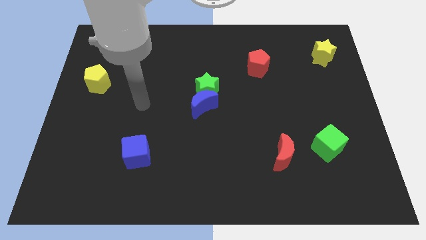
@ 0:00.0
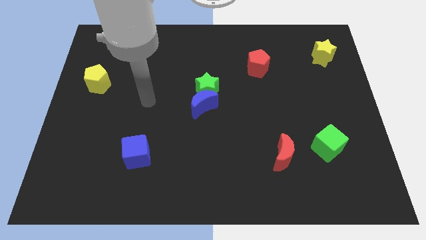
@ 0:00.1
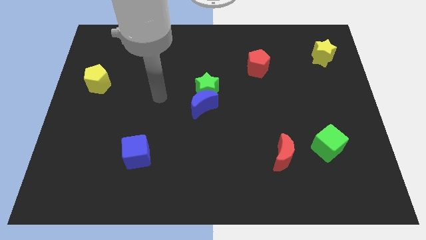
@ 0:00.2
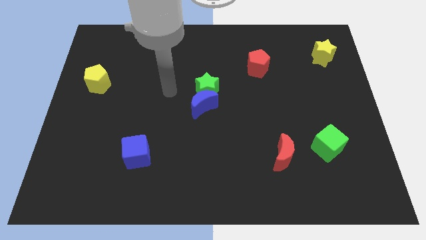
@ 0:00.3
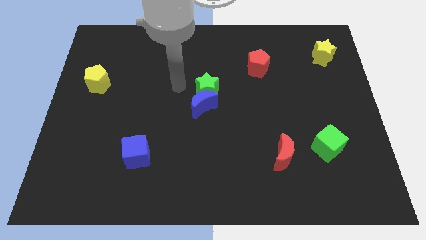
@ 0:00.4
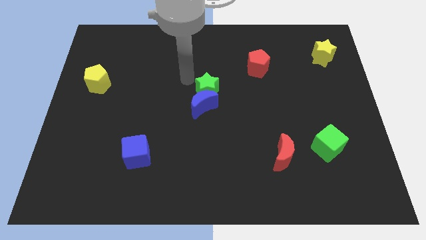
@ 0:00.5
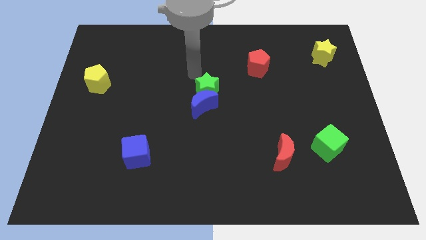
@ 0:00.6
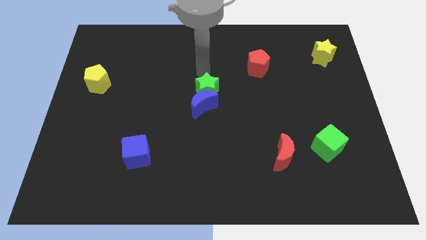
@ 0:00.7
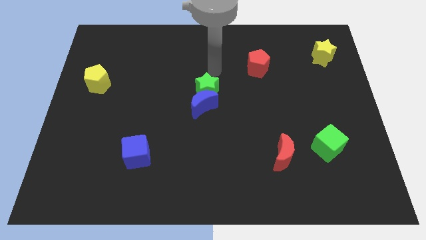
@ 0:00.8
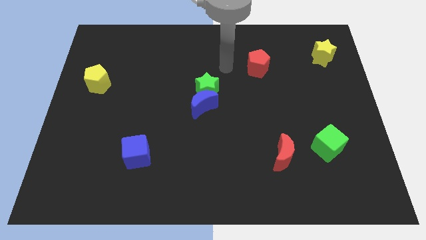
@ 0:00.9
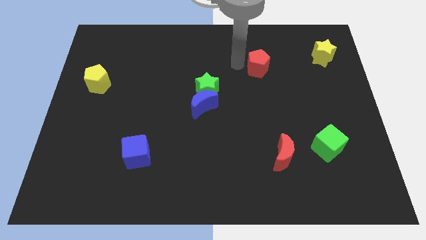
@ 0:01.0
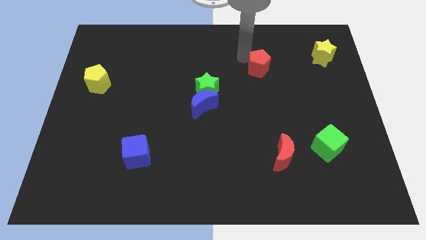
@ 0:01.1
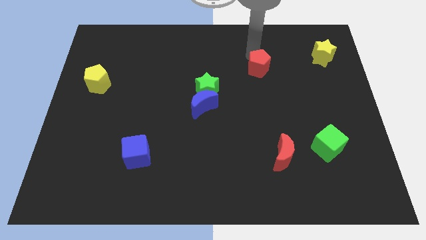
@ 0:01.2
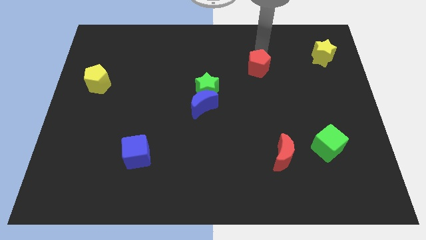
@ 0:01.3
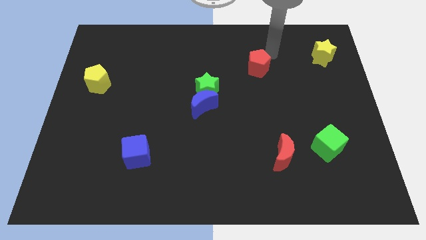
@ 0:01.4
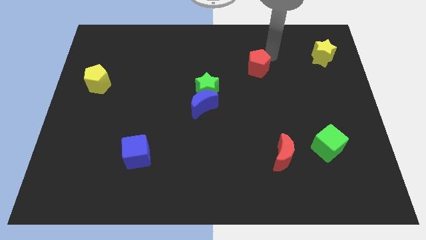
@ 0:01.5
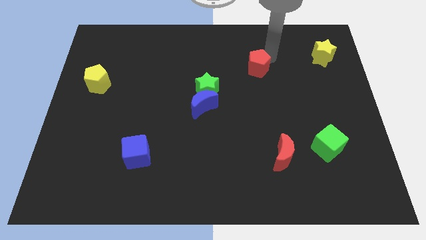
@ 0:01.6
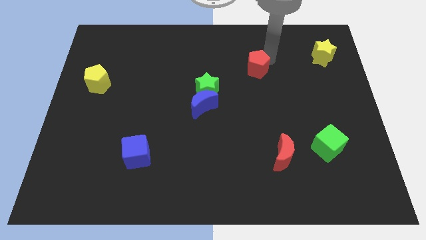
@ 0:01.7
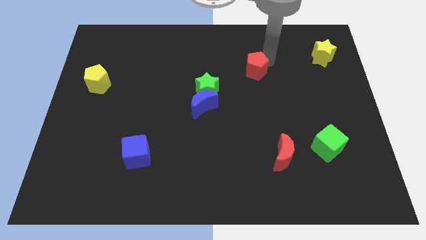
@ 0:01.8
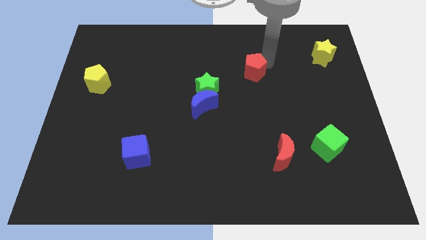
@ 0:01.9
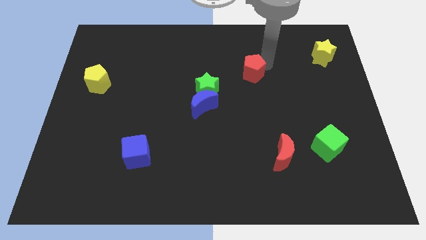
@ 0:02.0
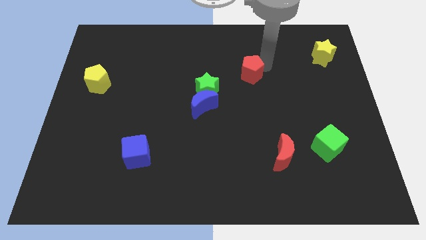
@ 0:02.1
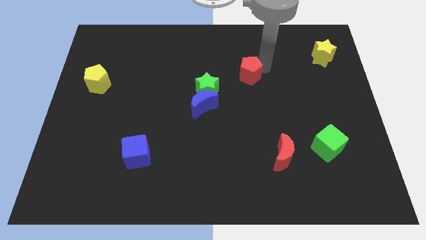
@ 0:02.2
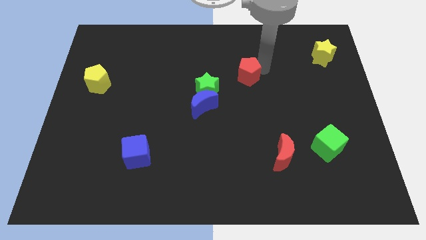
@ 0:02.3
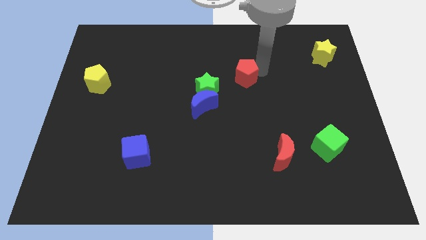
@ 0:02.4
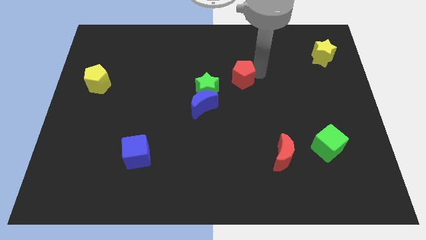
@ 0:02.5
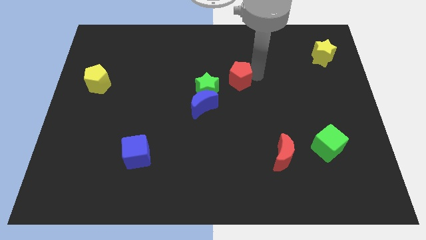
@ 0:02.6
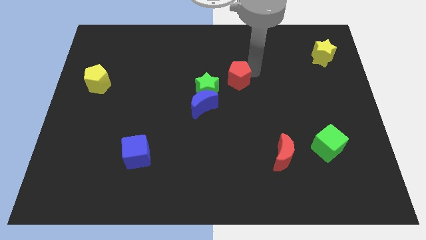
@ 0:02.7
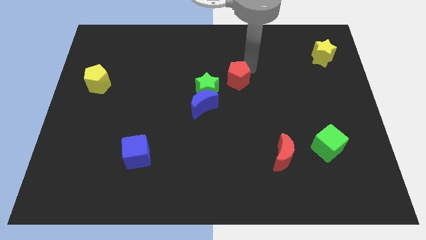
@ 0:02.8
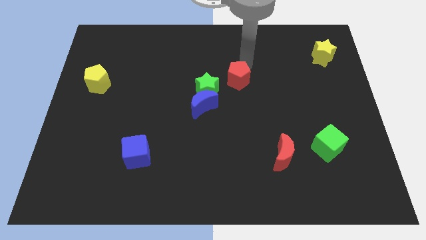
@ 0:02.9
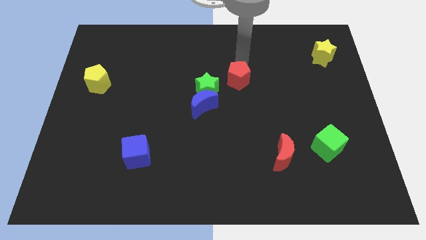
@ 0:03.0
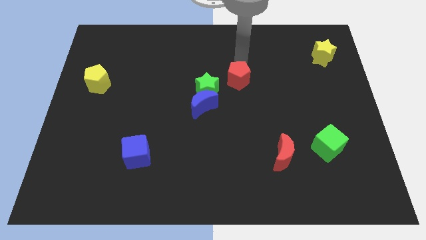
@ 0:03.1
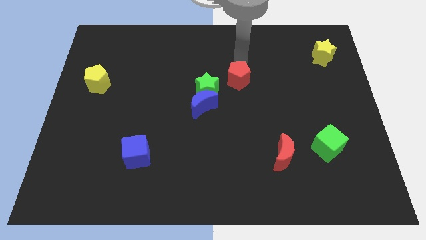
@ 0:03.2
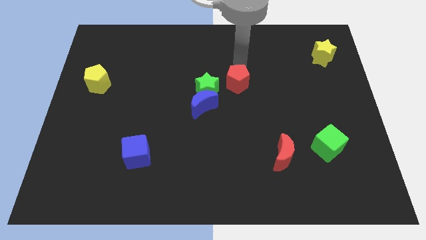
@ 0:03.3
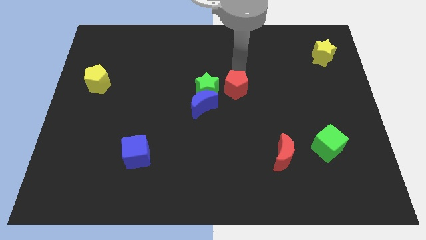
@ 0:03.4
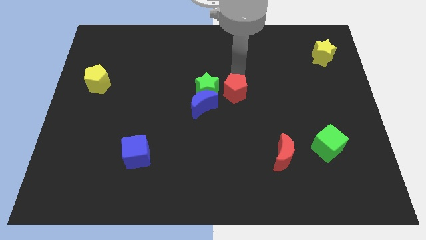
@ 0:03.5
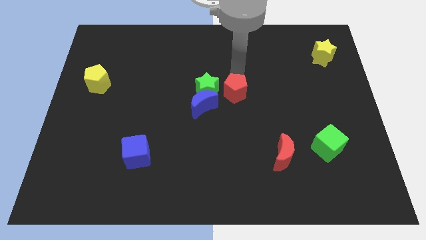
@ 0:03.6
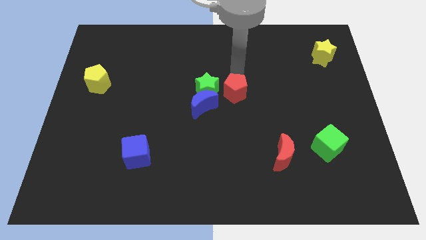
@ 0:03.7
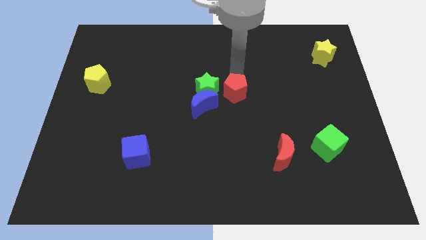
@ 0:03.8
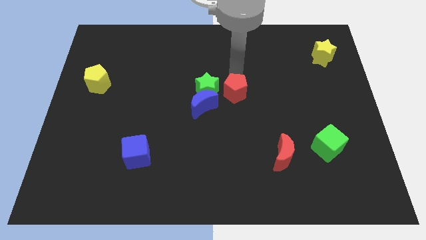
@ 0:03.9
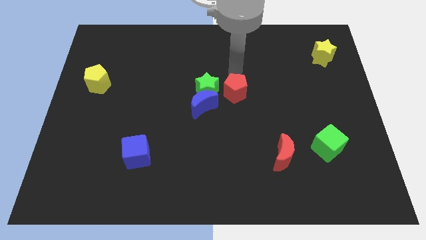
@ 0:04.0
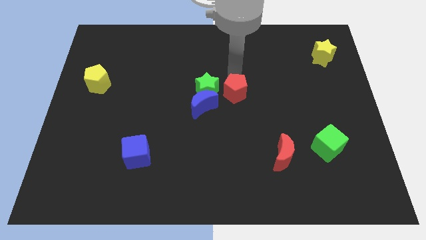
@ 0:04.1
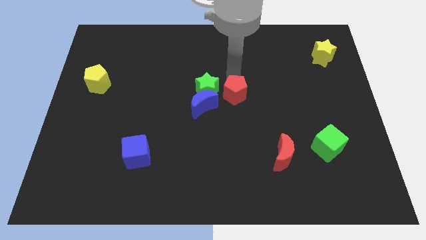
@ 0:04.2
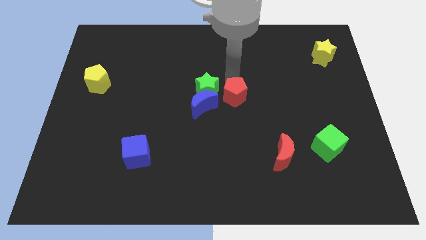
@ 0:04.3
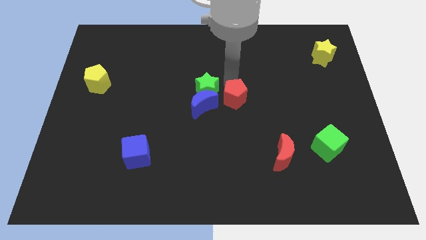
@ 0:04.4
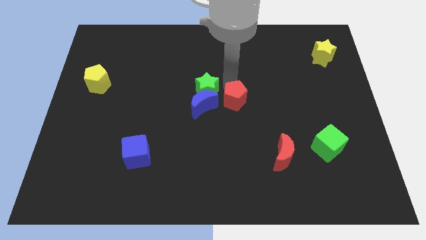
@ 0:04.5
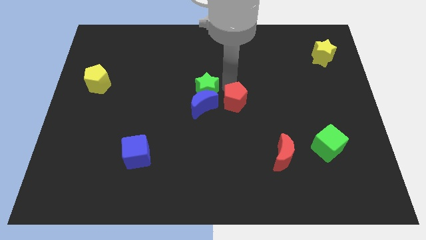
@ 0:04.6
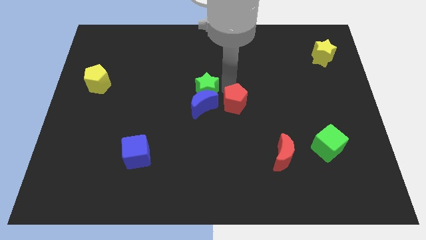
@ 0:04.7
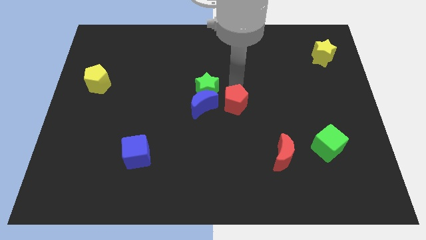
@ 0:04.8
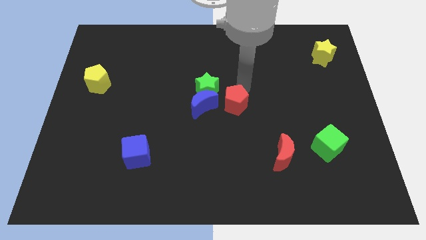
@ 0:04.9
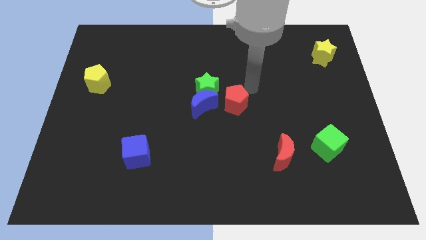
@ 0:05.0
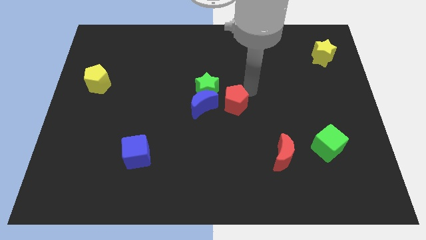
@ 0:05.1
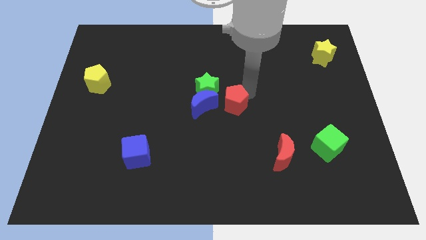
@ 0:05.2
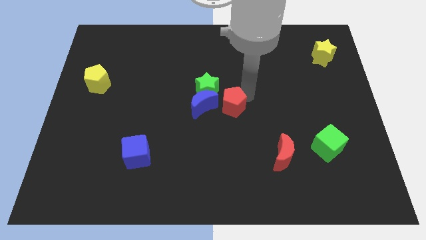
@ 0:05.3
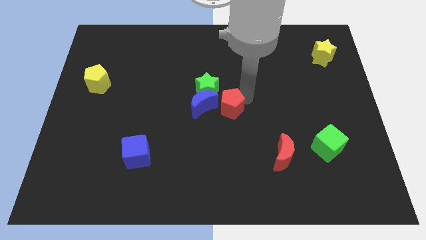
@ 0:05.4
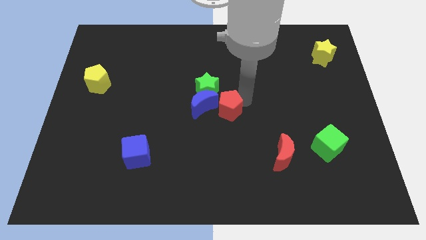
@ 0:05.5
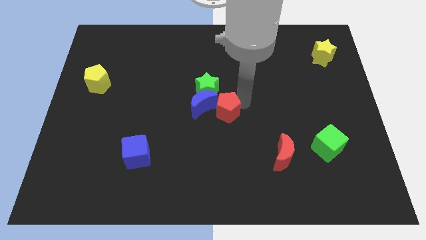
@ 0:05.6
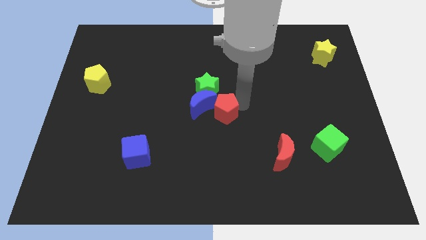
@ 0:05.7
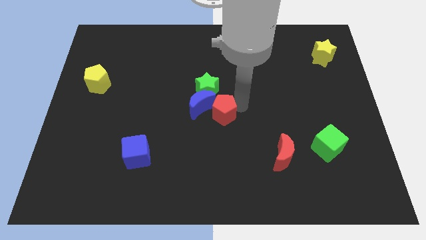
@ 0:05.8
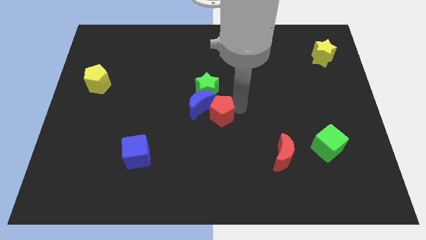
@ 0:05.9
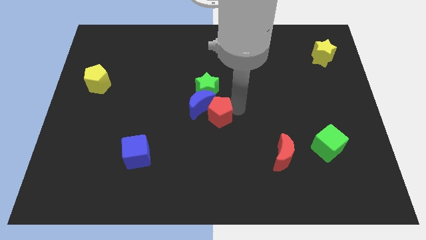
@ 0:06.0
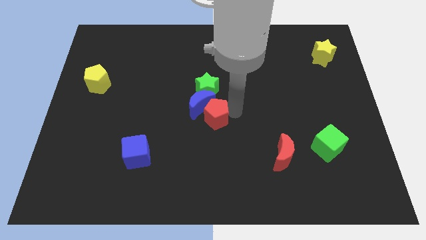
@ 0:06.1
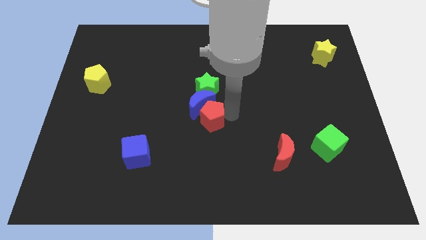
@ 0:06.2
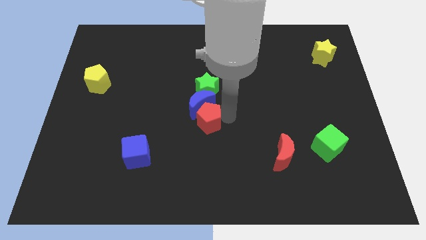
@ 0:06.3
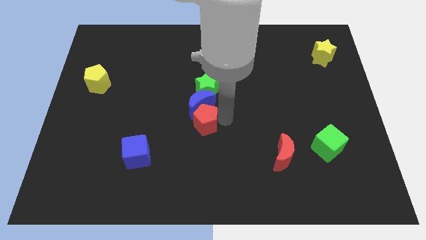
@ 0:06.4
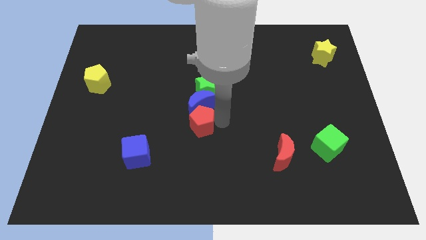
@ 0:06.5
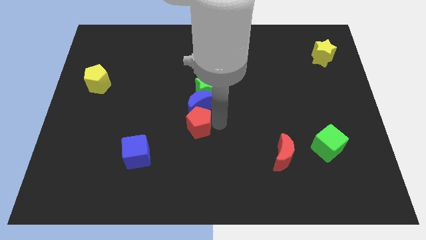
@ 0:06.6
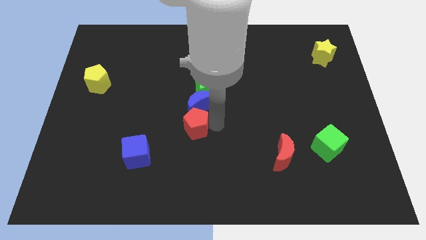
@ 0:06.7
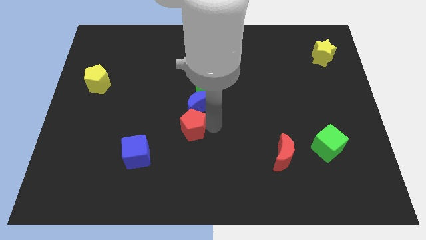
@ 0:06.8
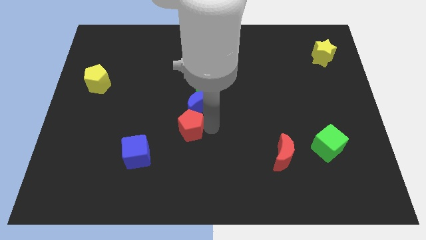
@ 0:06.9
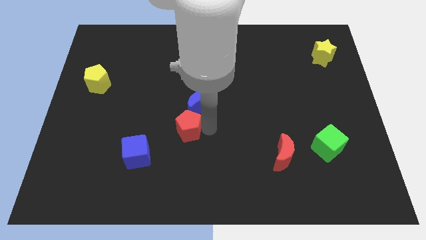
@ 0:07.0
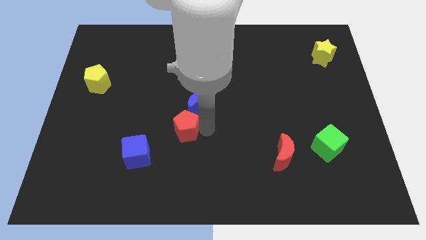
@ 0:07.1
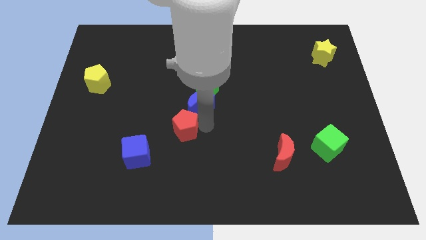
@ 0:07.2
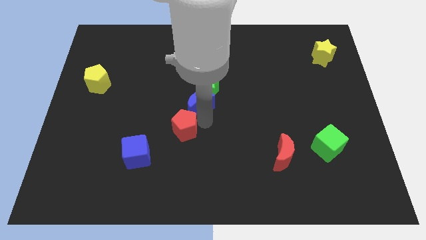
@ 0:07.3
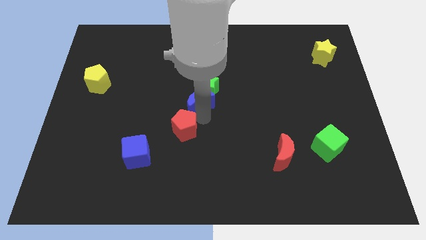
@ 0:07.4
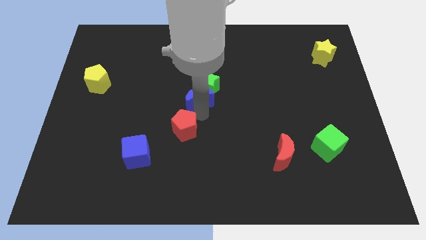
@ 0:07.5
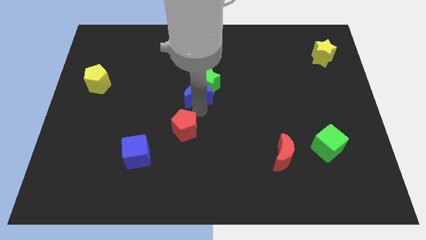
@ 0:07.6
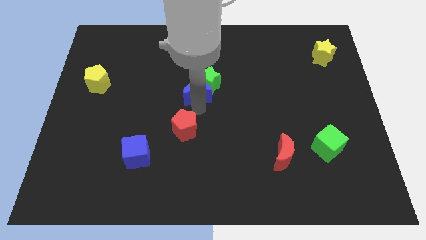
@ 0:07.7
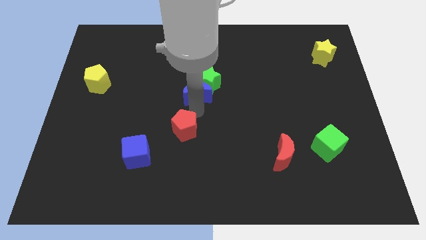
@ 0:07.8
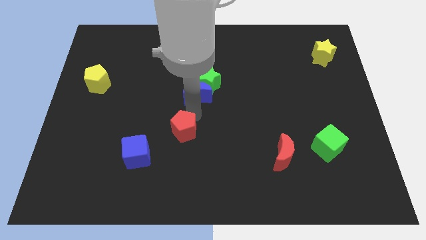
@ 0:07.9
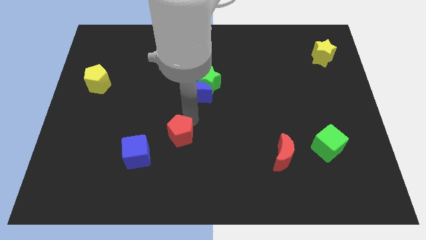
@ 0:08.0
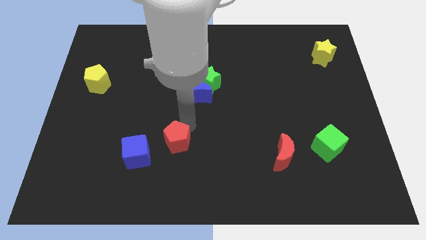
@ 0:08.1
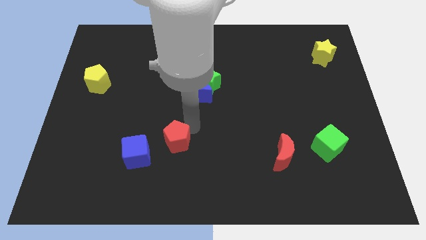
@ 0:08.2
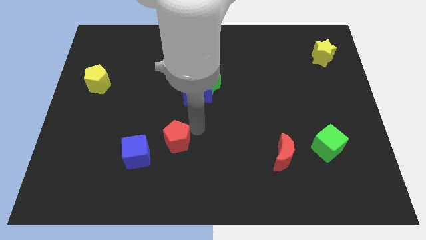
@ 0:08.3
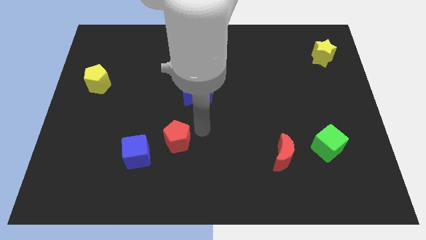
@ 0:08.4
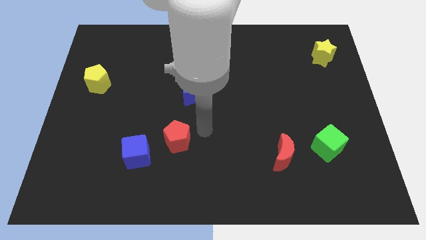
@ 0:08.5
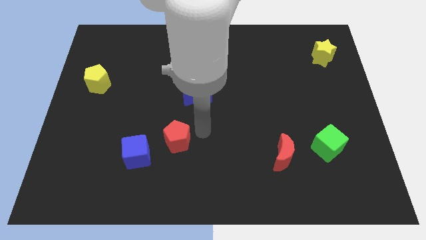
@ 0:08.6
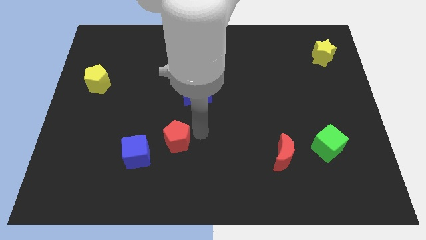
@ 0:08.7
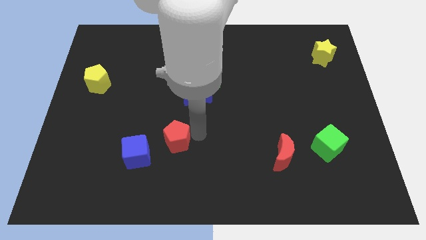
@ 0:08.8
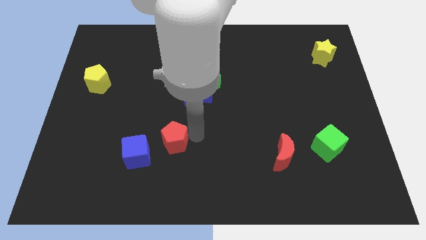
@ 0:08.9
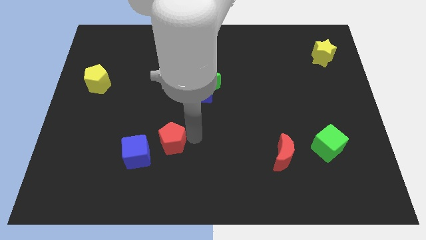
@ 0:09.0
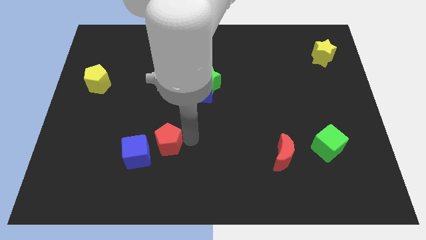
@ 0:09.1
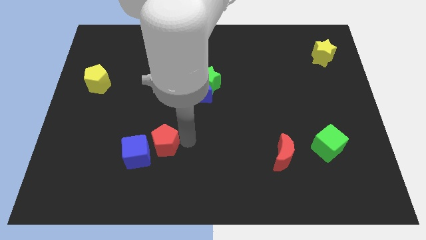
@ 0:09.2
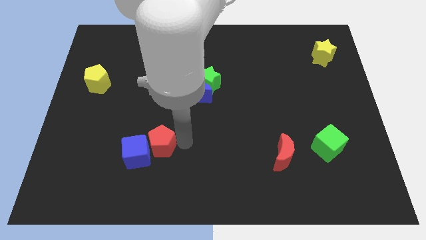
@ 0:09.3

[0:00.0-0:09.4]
put the red pentagon to the blue cube
